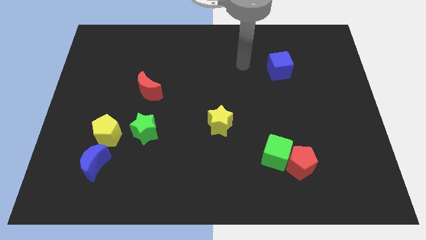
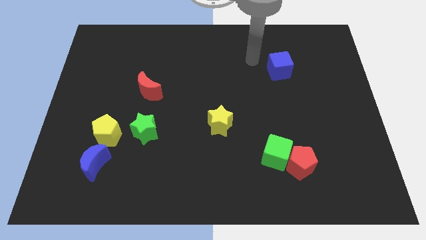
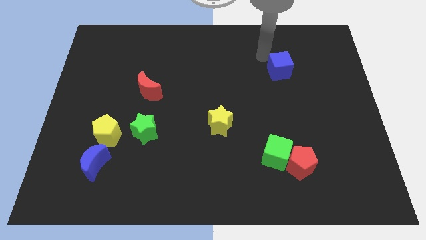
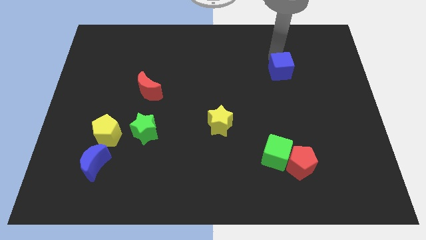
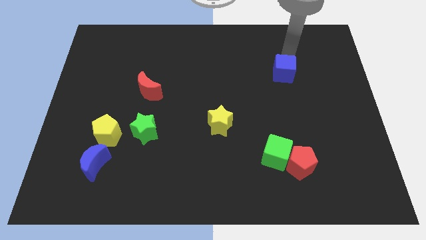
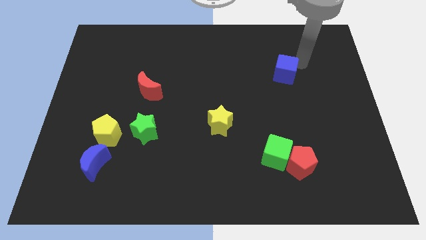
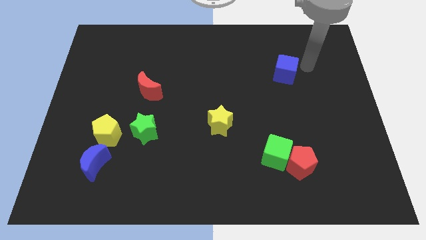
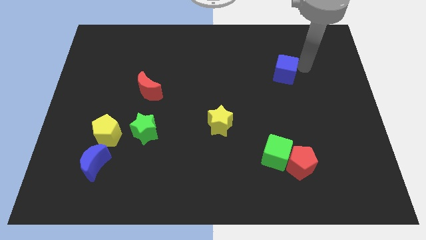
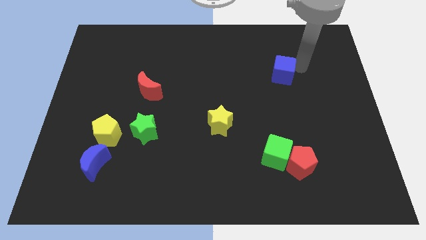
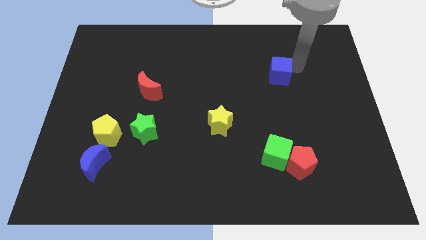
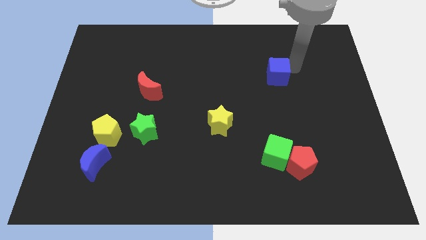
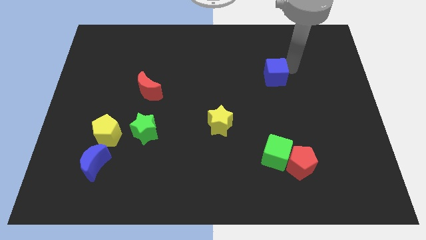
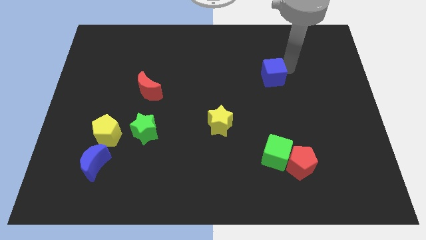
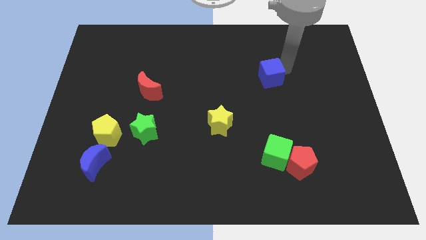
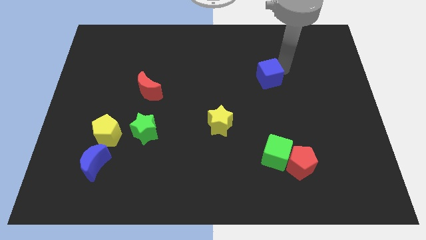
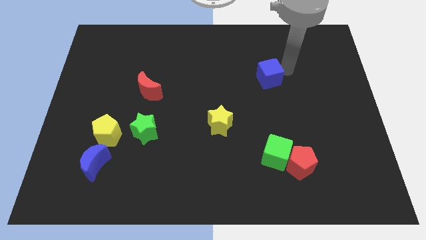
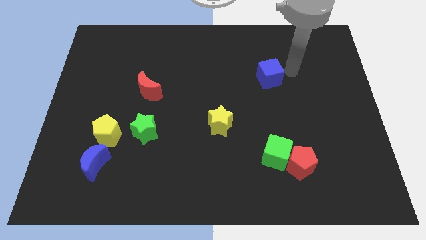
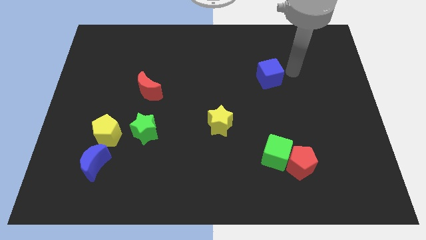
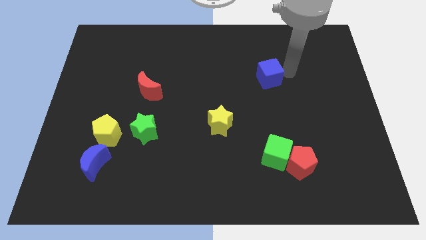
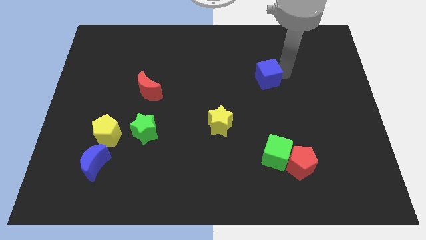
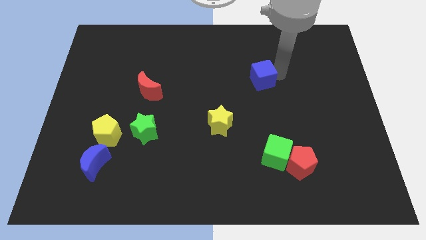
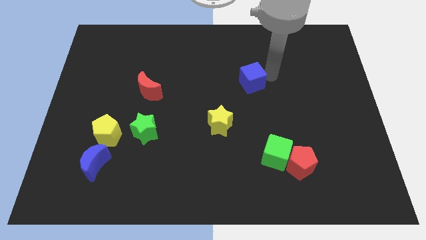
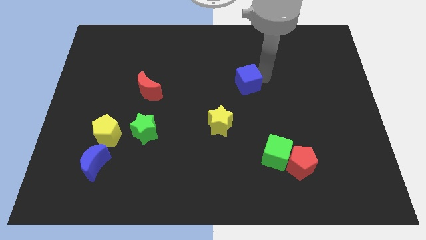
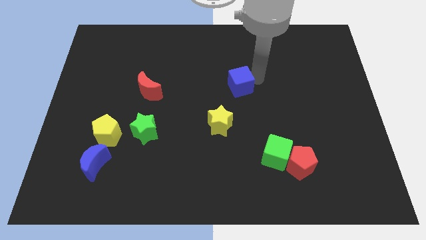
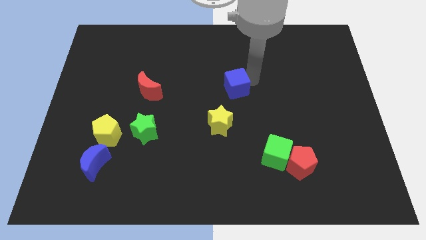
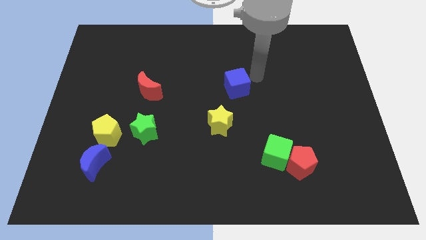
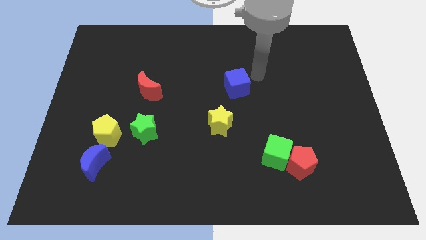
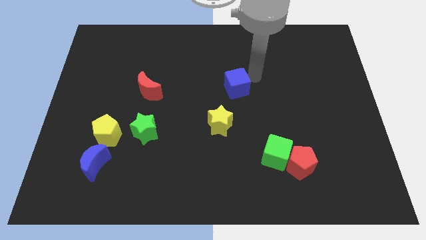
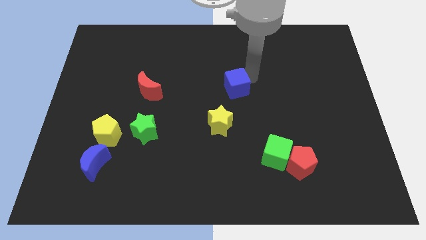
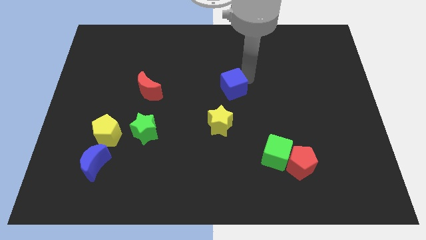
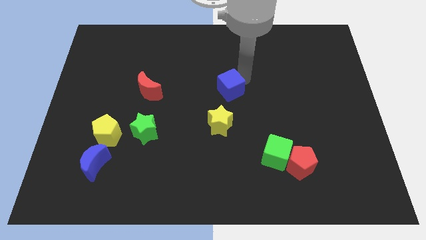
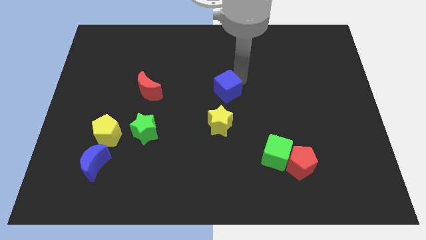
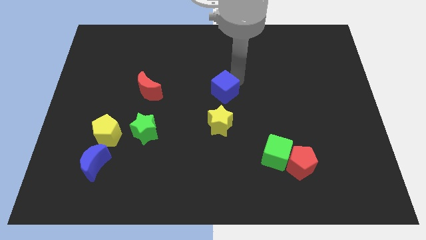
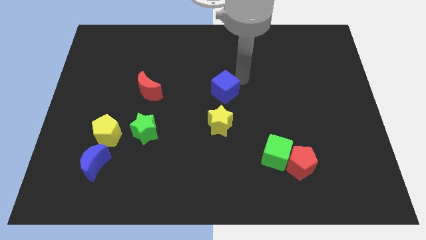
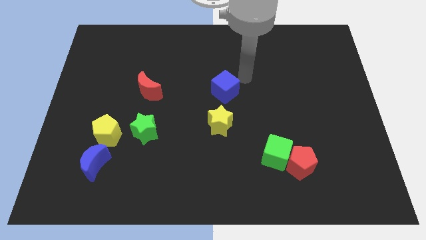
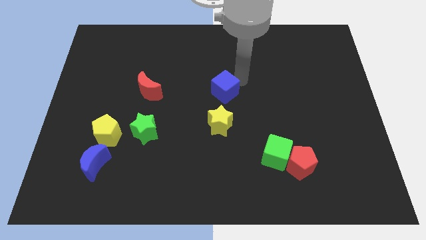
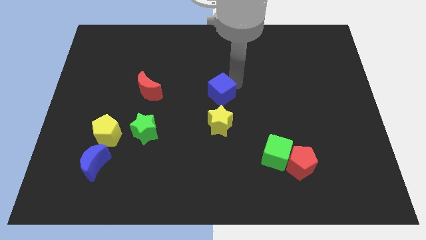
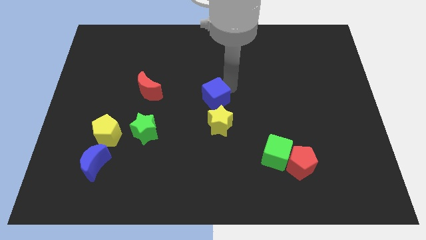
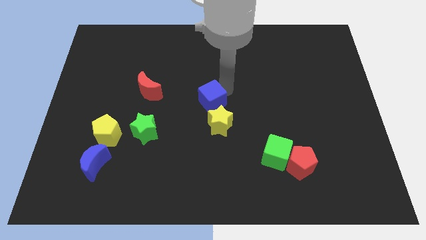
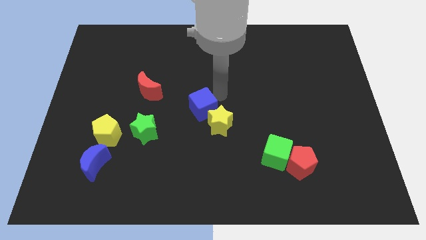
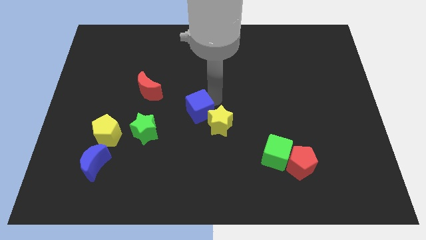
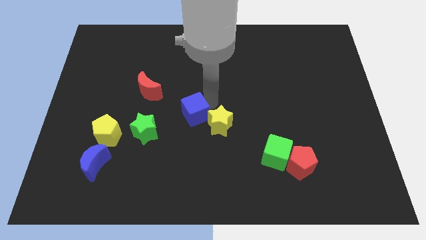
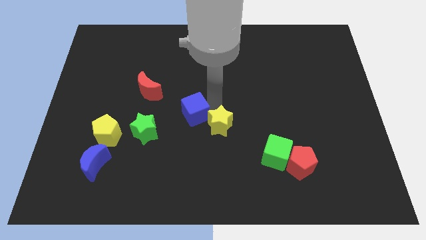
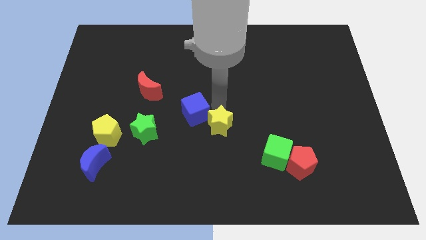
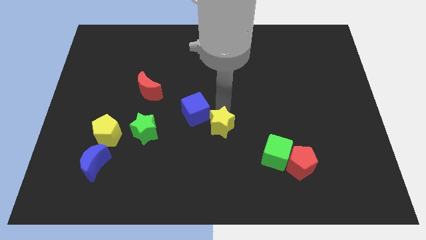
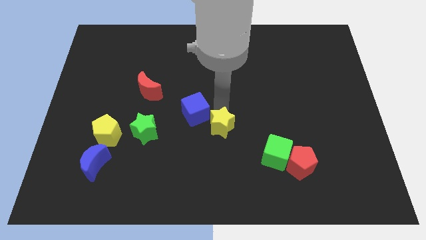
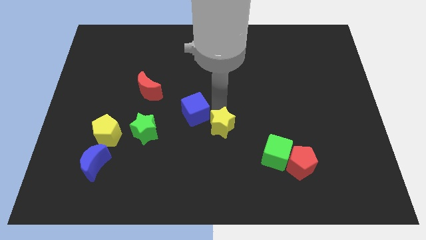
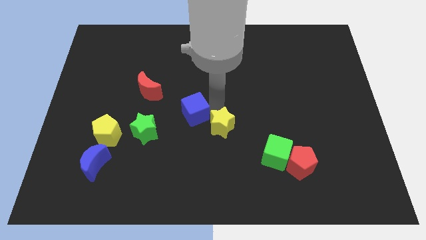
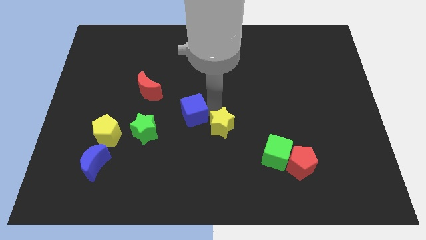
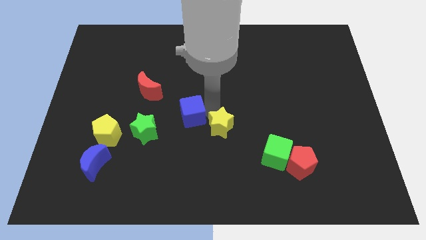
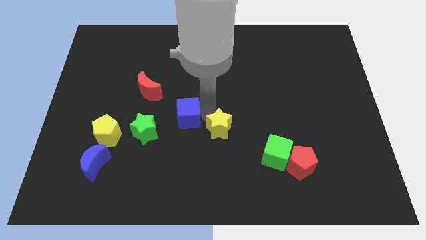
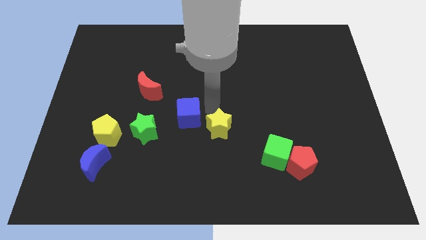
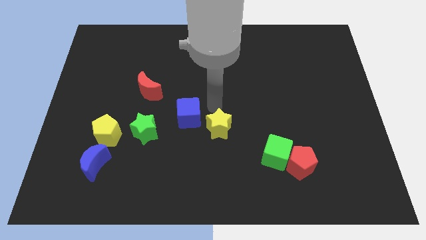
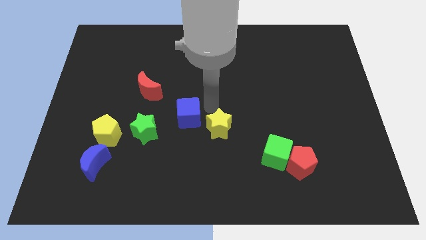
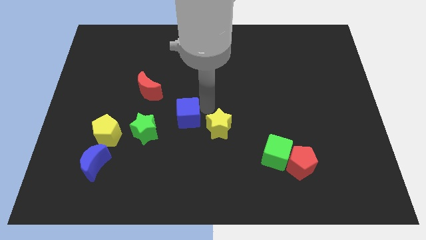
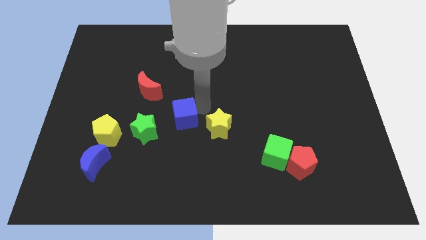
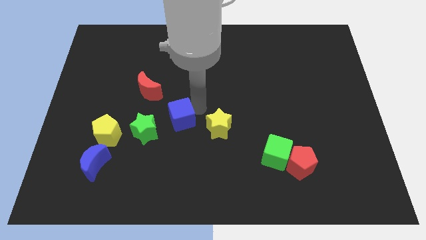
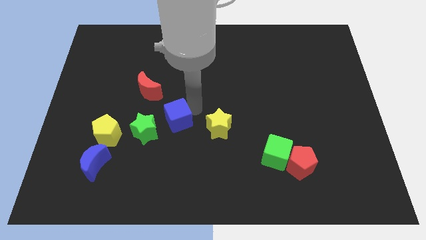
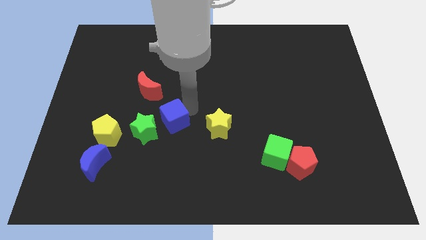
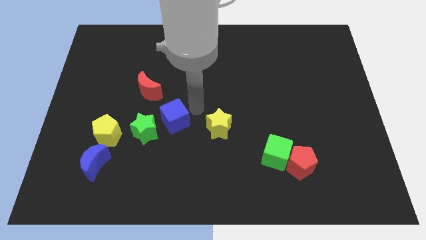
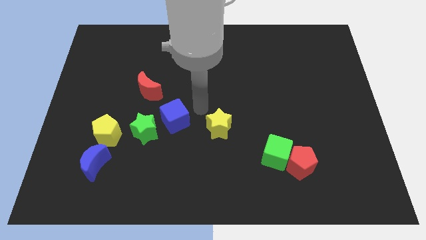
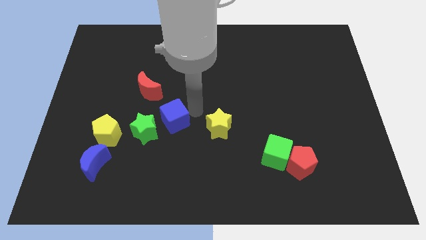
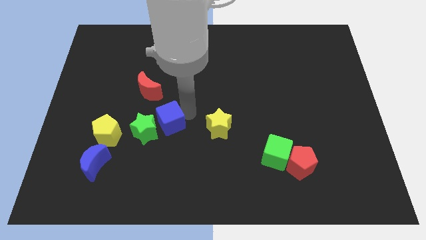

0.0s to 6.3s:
push the blue cube towards the green star
